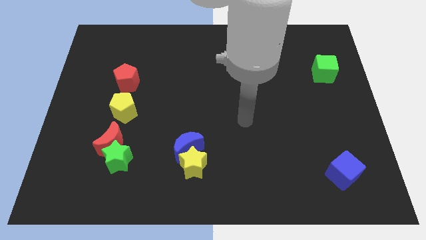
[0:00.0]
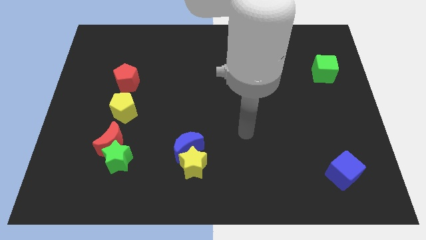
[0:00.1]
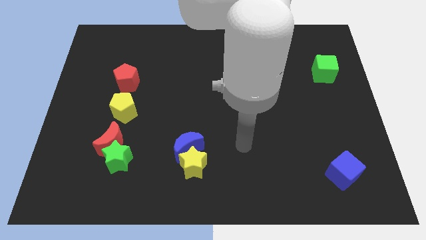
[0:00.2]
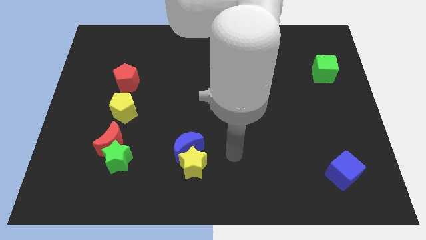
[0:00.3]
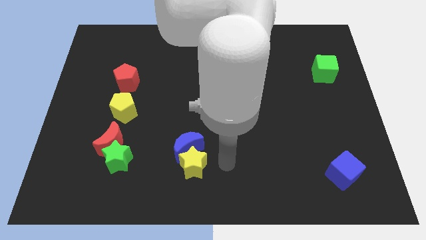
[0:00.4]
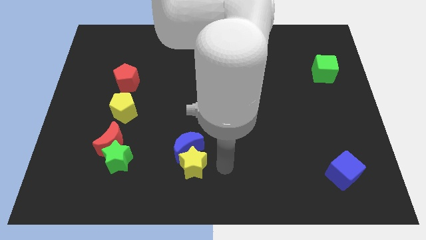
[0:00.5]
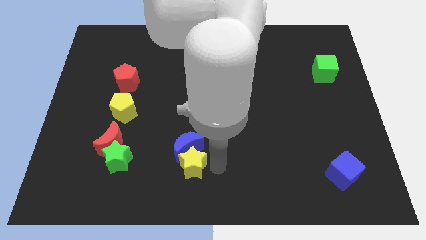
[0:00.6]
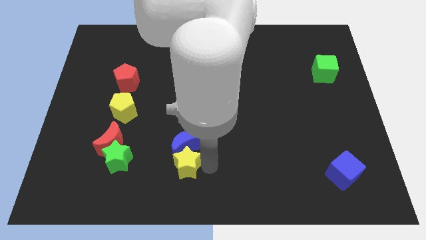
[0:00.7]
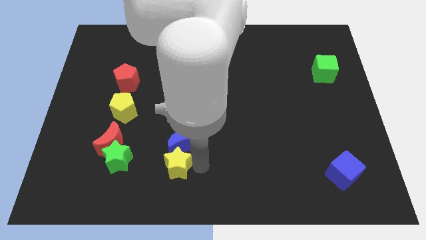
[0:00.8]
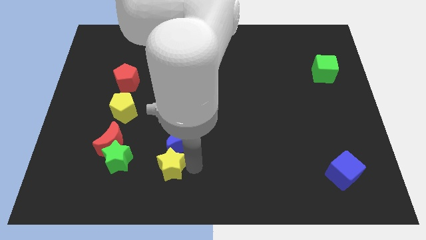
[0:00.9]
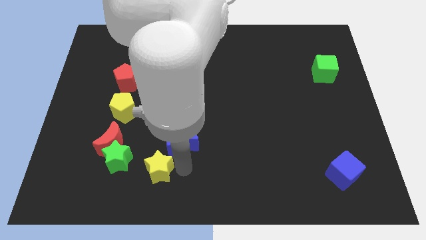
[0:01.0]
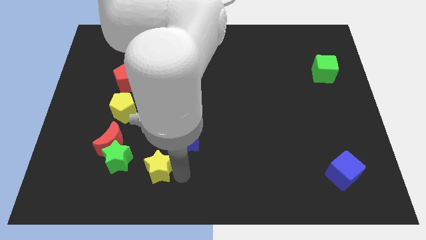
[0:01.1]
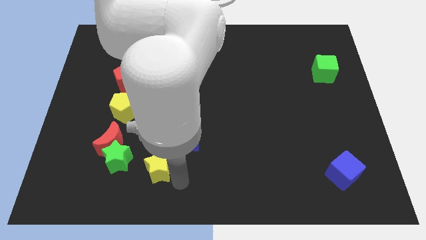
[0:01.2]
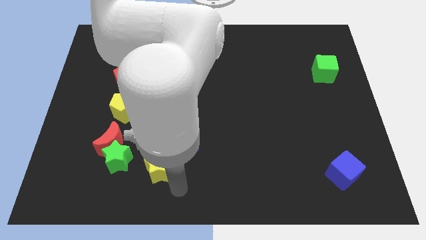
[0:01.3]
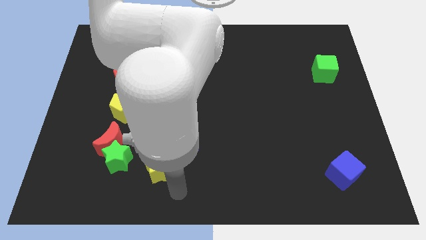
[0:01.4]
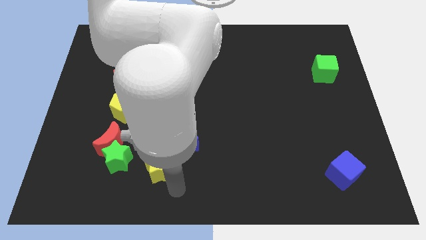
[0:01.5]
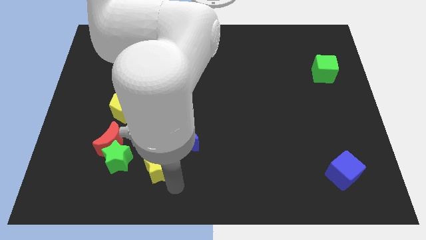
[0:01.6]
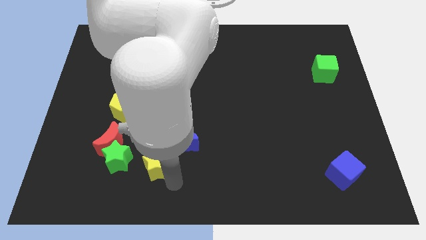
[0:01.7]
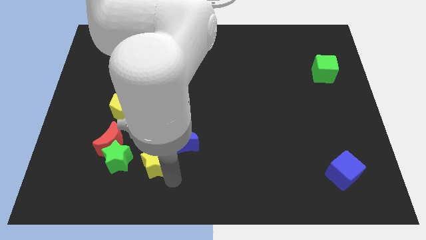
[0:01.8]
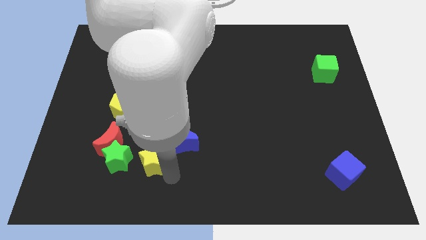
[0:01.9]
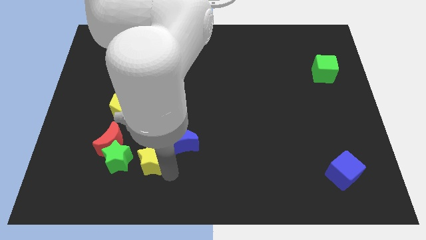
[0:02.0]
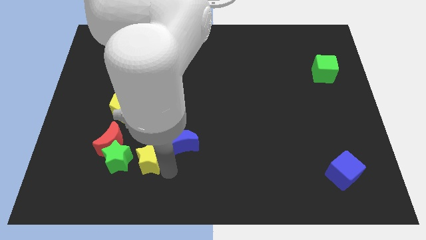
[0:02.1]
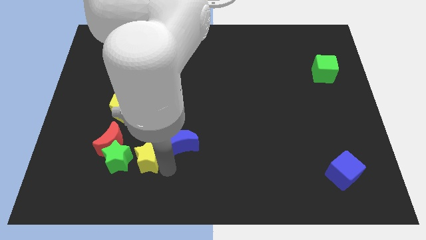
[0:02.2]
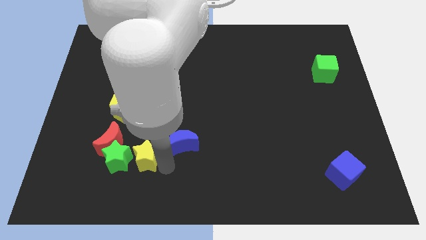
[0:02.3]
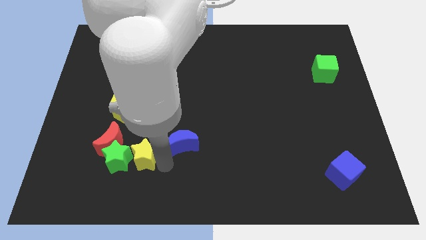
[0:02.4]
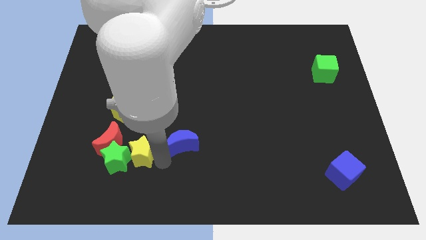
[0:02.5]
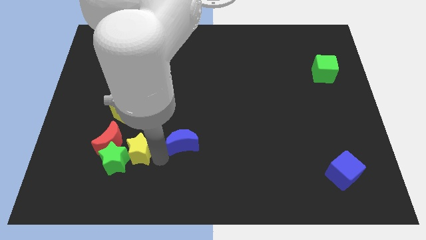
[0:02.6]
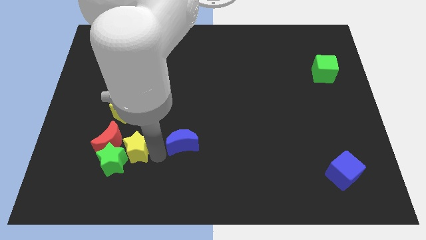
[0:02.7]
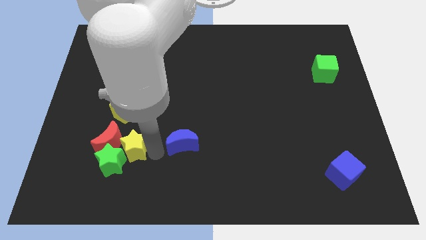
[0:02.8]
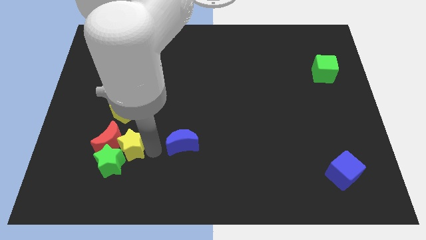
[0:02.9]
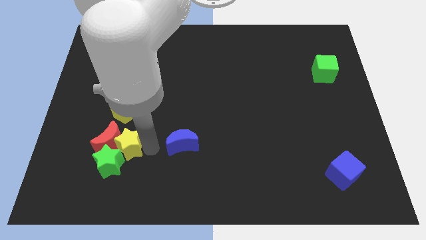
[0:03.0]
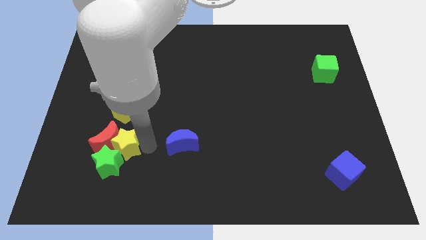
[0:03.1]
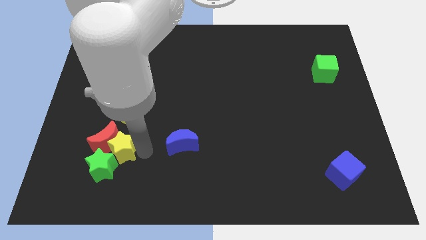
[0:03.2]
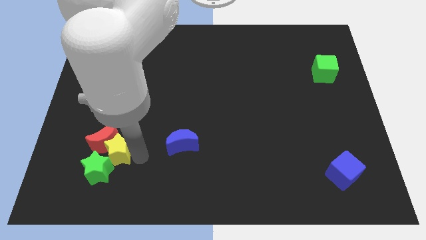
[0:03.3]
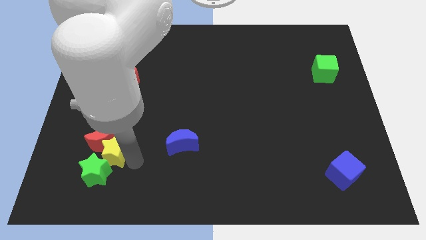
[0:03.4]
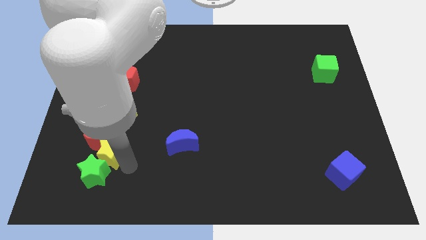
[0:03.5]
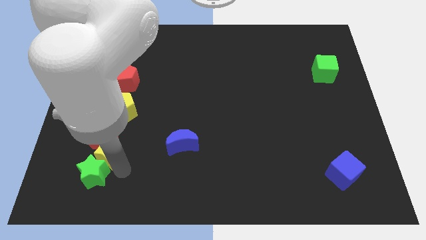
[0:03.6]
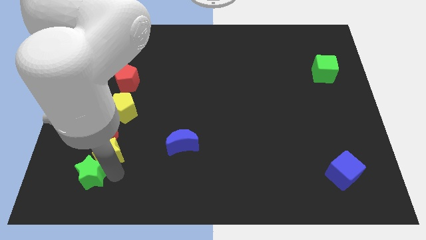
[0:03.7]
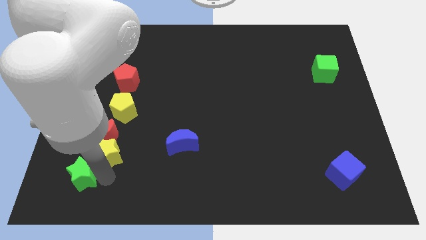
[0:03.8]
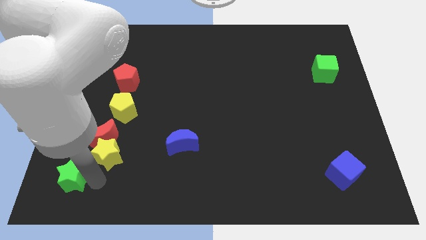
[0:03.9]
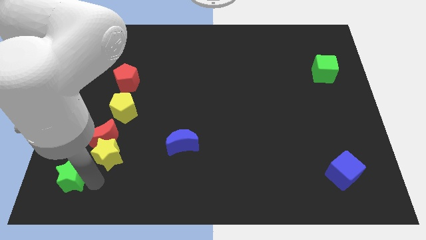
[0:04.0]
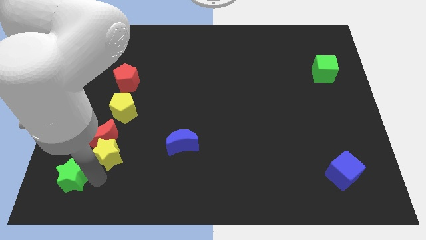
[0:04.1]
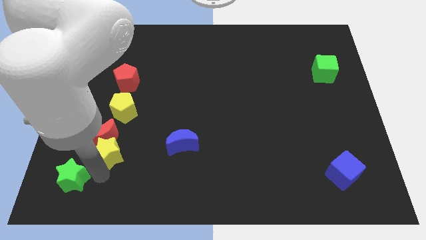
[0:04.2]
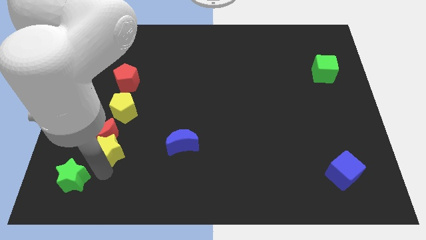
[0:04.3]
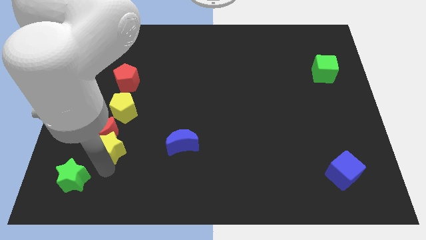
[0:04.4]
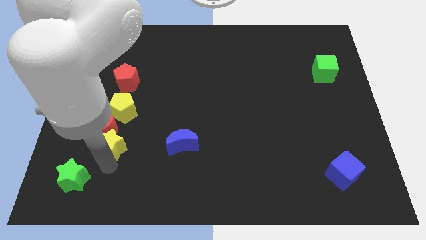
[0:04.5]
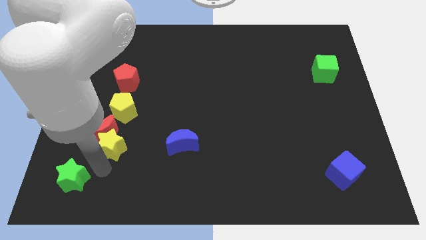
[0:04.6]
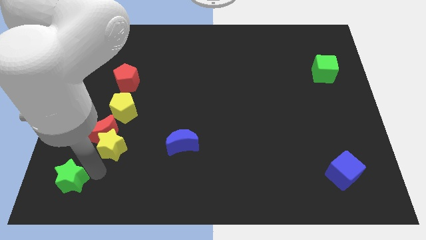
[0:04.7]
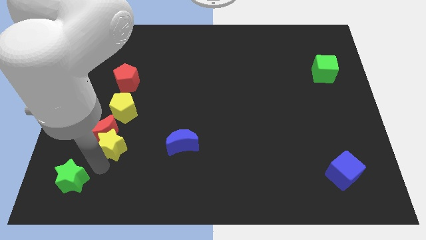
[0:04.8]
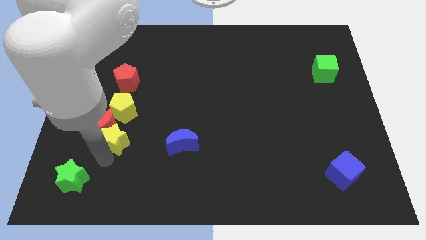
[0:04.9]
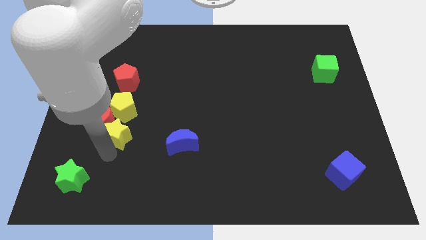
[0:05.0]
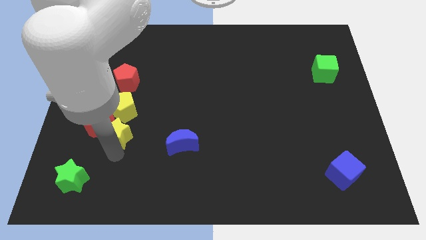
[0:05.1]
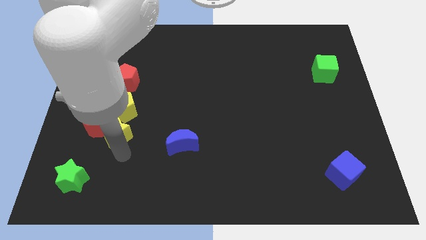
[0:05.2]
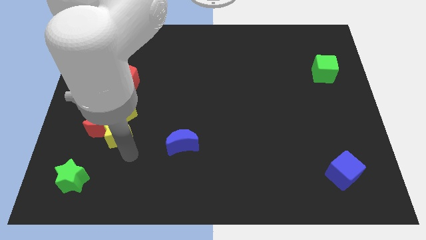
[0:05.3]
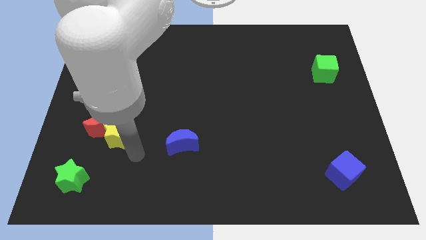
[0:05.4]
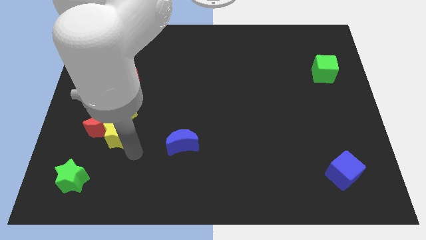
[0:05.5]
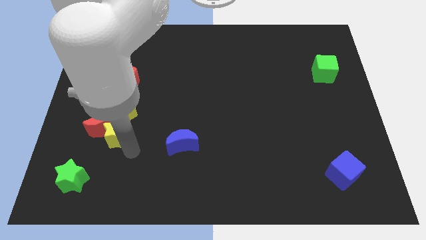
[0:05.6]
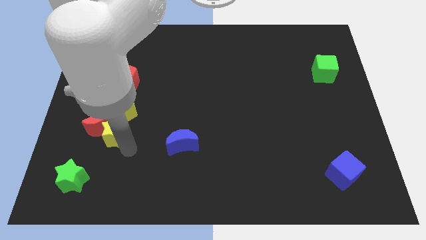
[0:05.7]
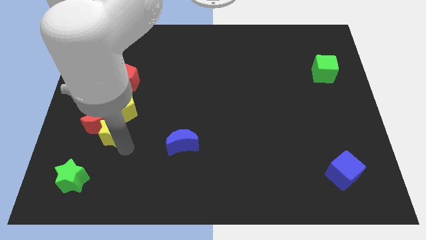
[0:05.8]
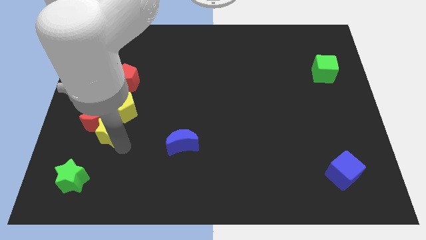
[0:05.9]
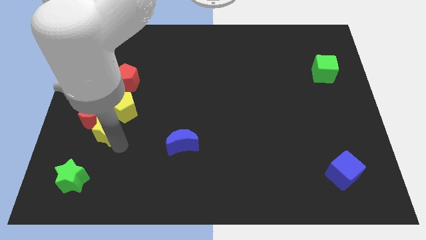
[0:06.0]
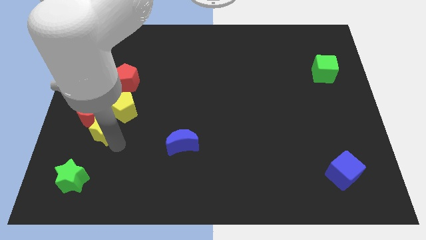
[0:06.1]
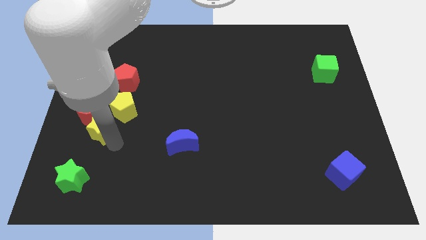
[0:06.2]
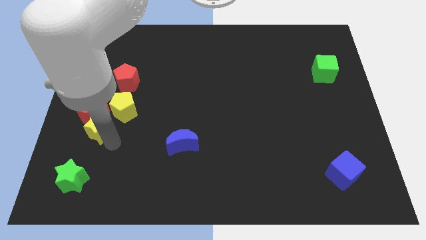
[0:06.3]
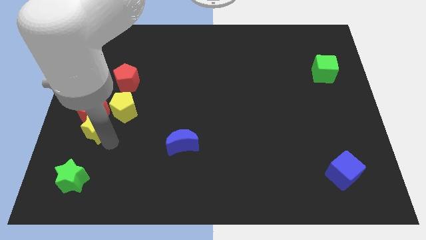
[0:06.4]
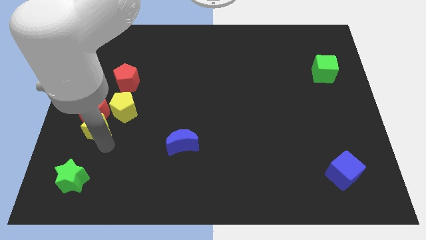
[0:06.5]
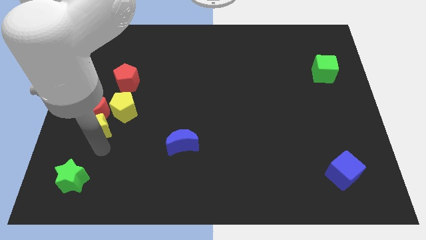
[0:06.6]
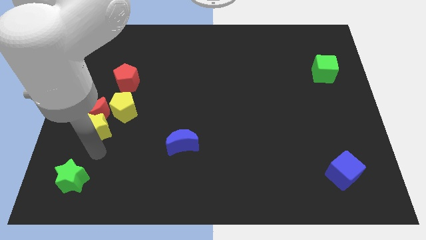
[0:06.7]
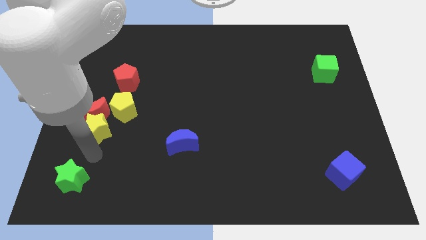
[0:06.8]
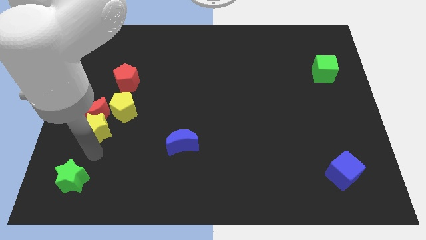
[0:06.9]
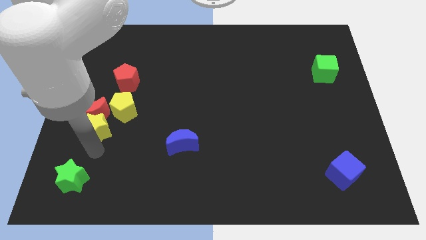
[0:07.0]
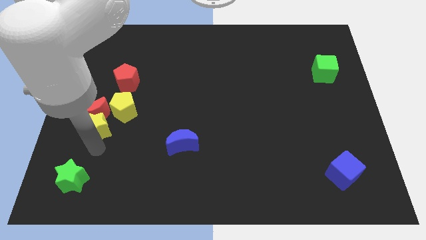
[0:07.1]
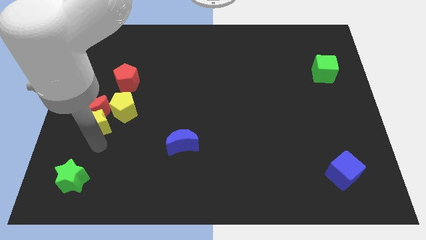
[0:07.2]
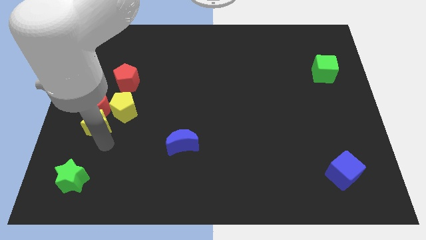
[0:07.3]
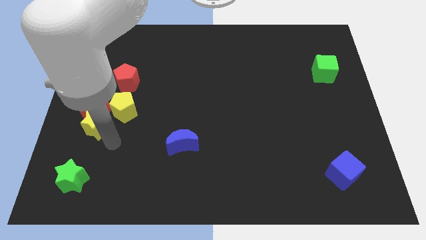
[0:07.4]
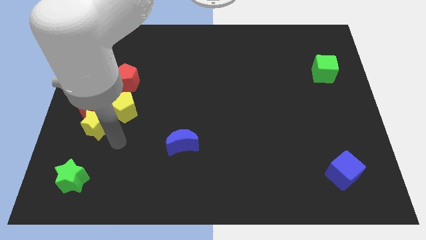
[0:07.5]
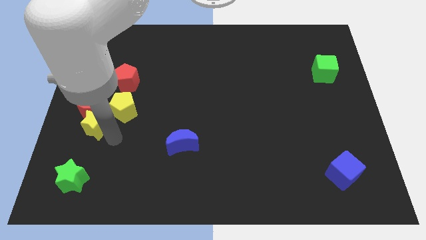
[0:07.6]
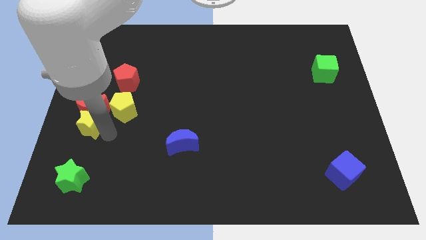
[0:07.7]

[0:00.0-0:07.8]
put the yellow star to the left side
